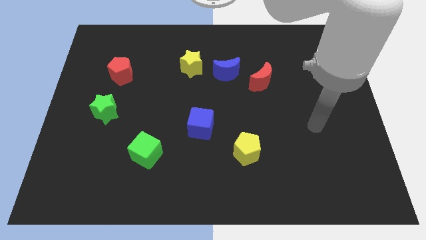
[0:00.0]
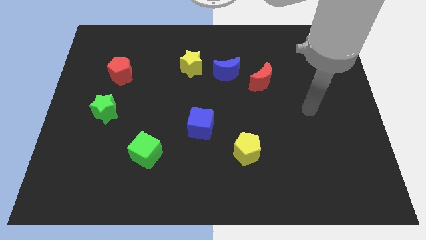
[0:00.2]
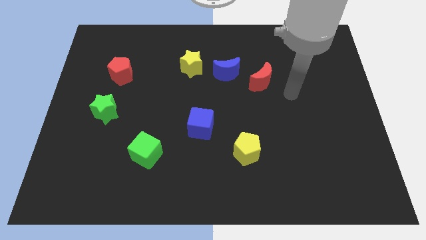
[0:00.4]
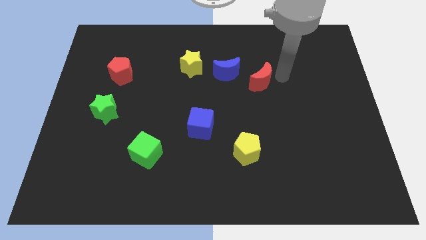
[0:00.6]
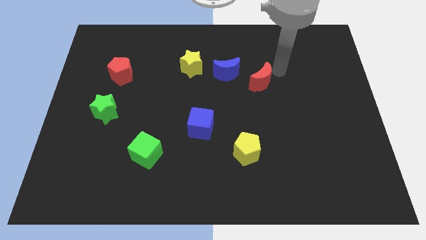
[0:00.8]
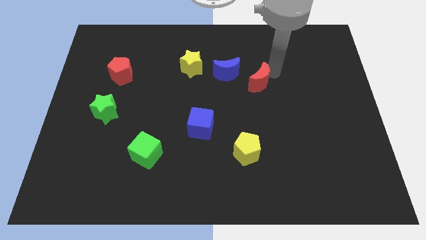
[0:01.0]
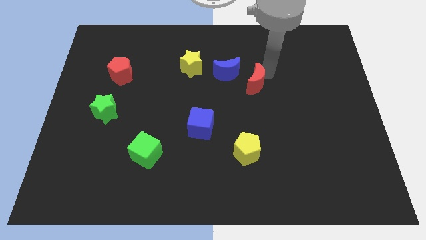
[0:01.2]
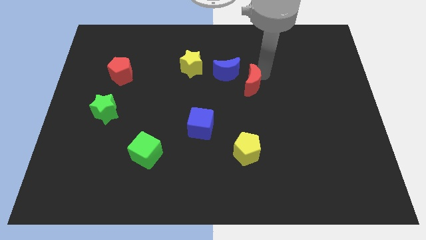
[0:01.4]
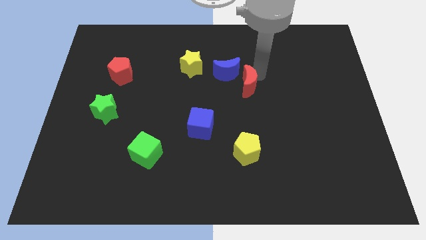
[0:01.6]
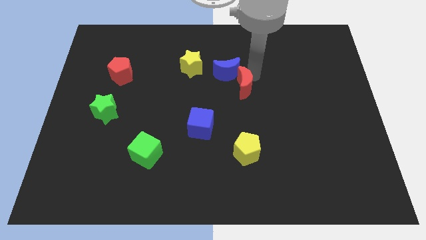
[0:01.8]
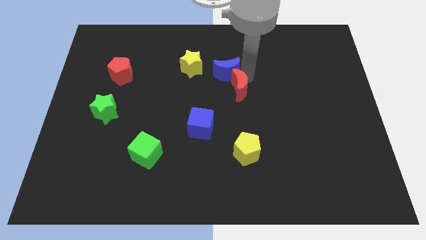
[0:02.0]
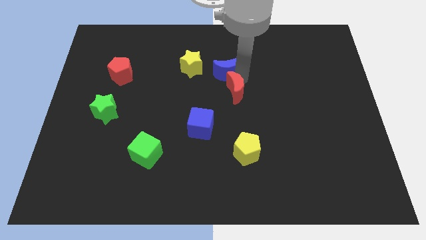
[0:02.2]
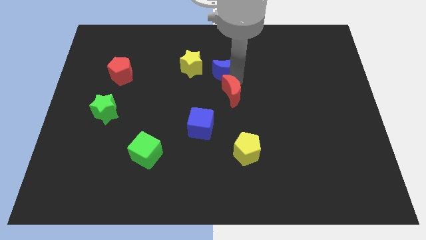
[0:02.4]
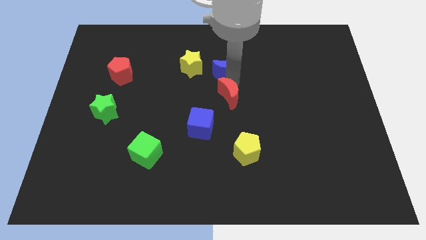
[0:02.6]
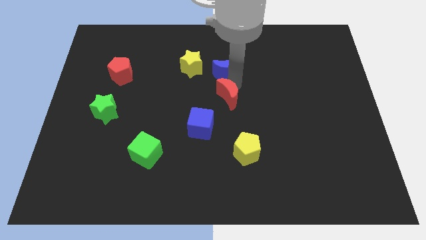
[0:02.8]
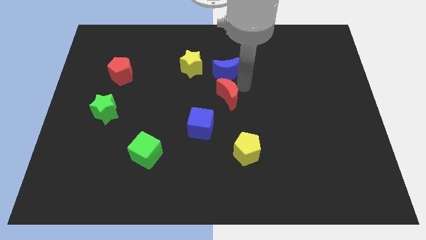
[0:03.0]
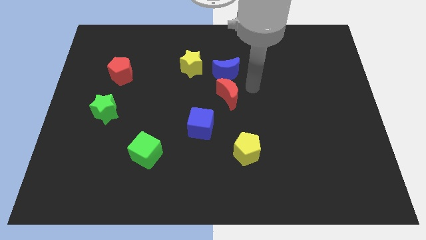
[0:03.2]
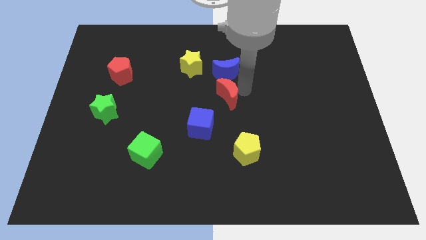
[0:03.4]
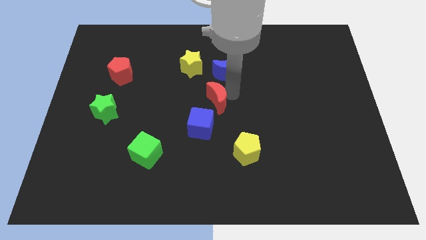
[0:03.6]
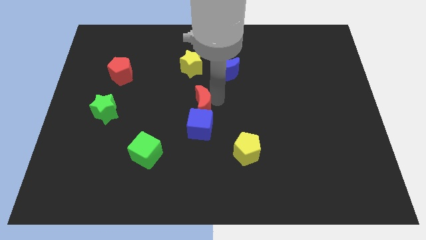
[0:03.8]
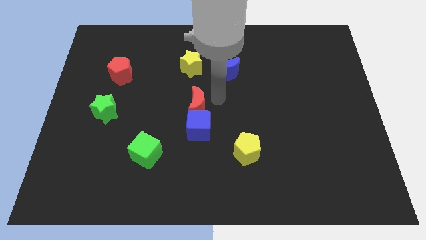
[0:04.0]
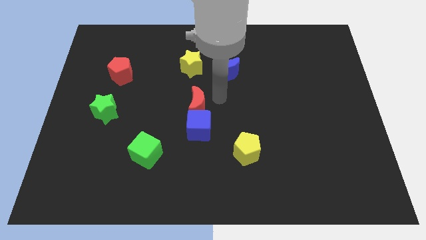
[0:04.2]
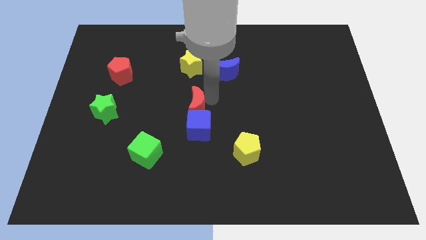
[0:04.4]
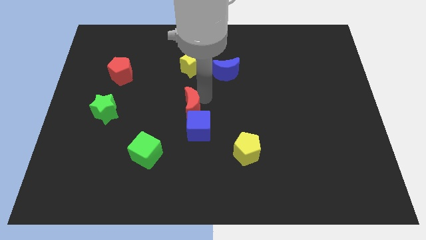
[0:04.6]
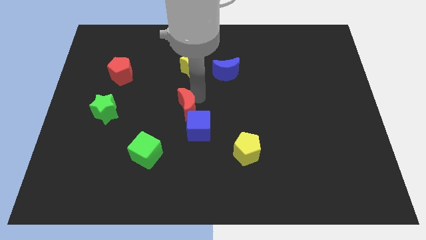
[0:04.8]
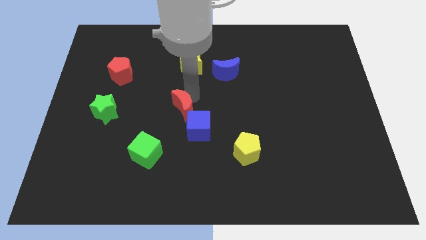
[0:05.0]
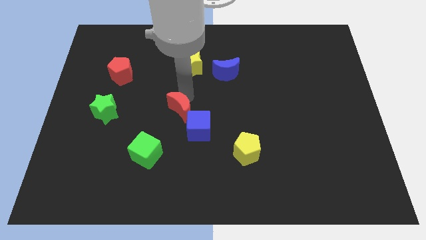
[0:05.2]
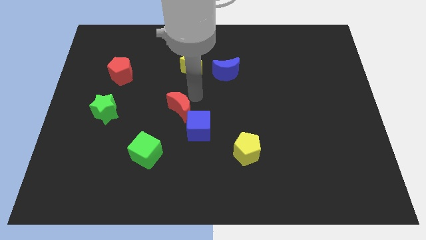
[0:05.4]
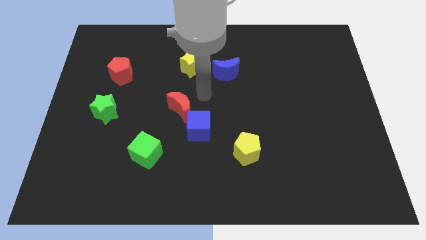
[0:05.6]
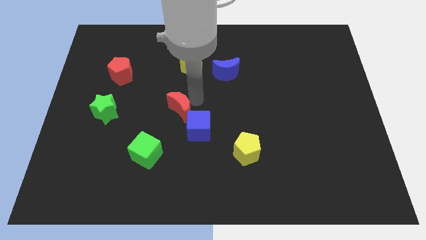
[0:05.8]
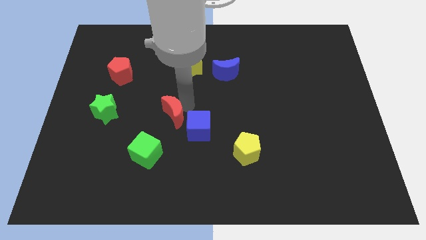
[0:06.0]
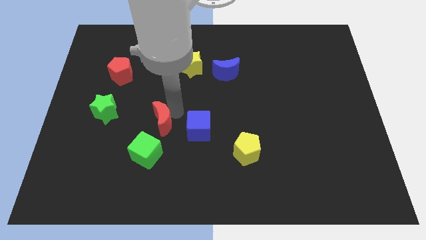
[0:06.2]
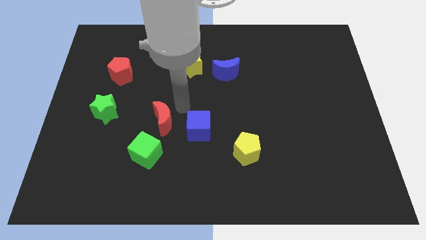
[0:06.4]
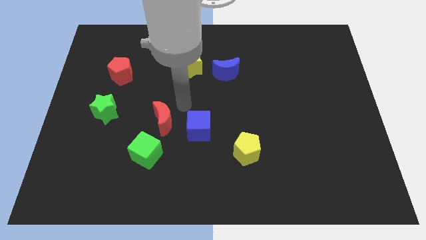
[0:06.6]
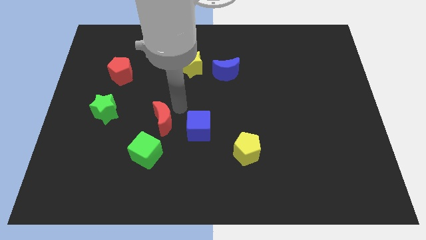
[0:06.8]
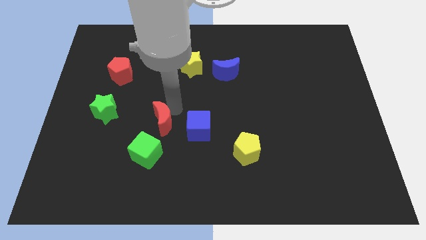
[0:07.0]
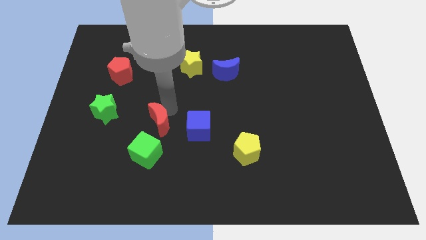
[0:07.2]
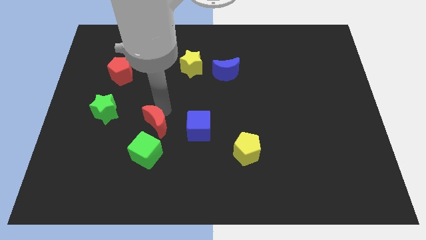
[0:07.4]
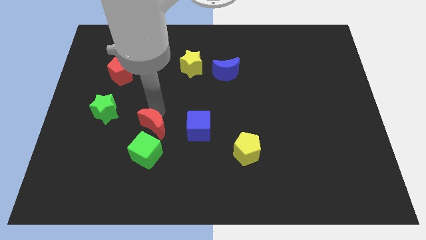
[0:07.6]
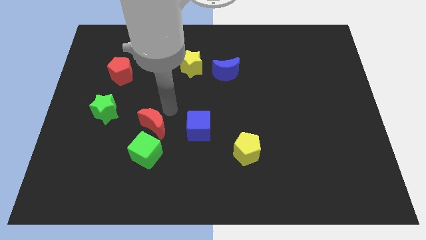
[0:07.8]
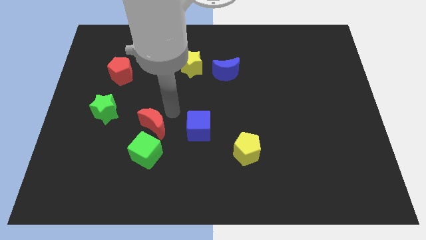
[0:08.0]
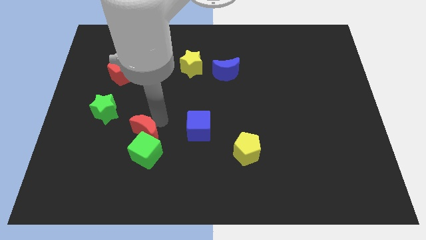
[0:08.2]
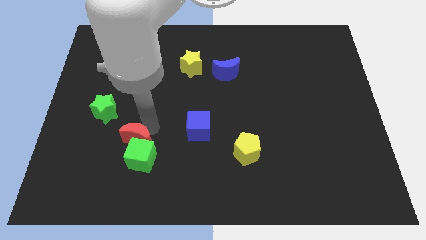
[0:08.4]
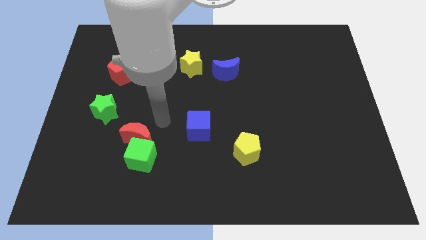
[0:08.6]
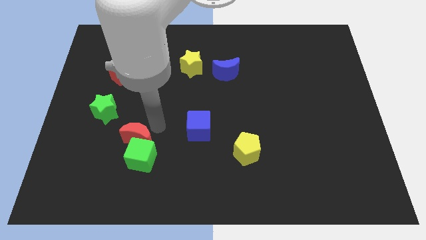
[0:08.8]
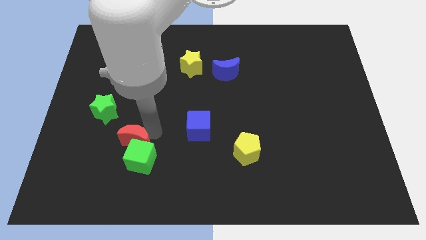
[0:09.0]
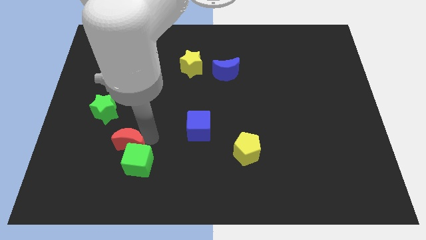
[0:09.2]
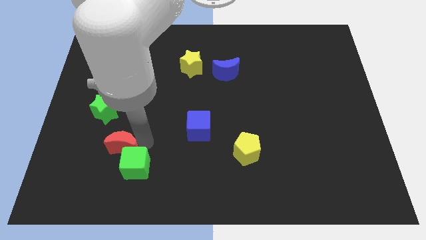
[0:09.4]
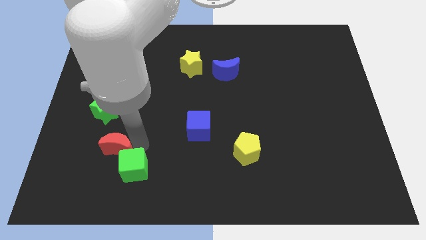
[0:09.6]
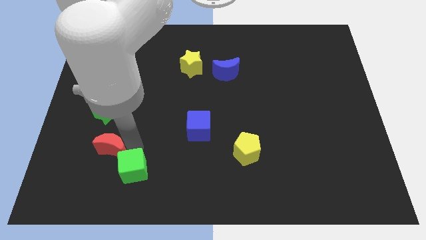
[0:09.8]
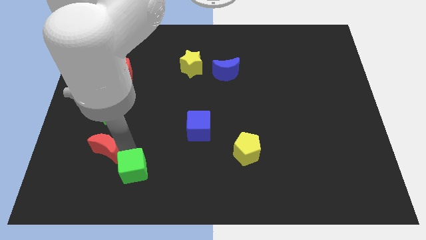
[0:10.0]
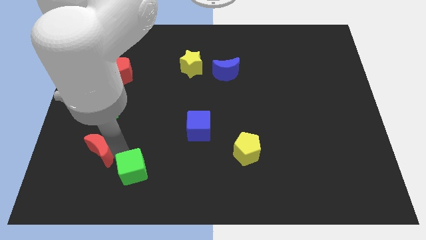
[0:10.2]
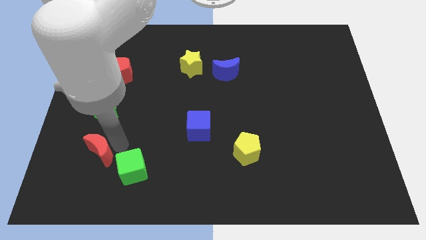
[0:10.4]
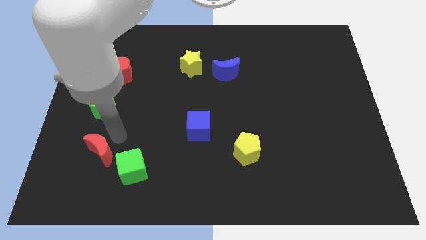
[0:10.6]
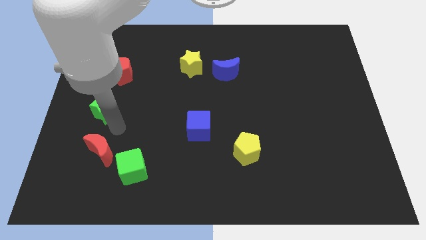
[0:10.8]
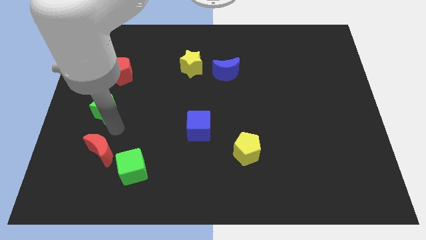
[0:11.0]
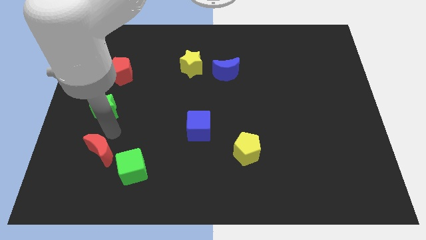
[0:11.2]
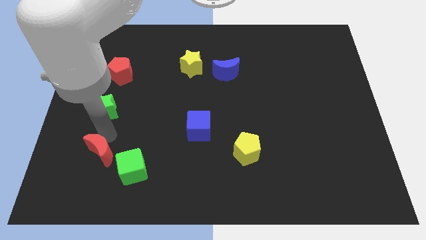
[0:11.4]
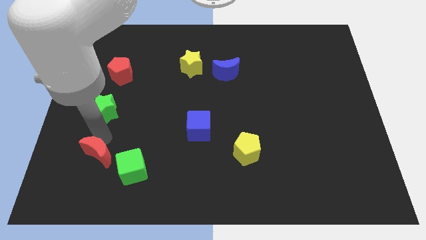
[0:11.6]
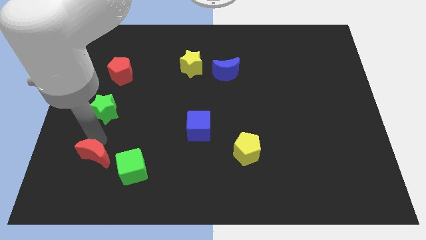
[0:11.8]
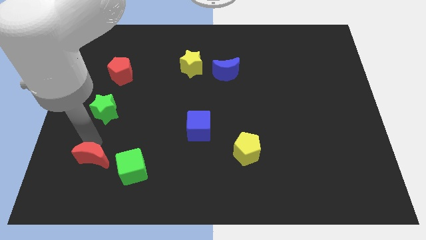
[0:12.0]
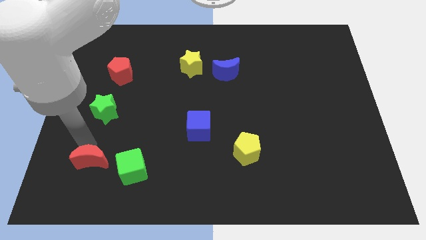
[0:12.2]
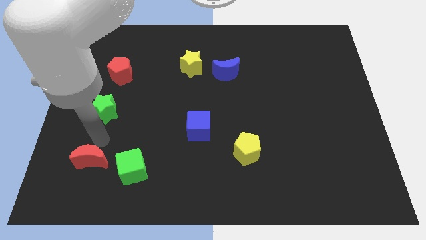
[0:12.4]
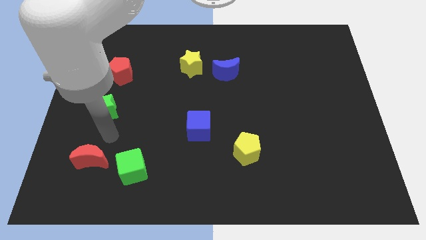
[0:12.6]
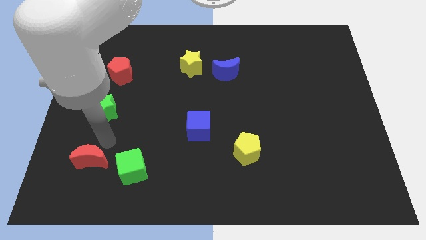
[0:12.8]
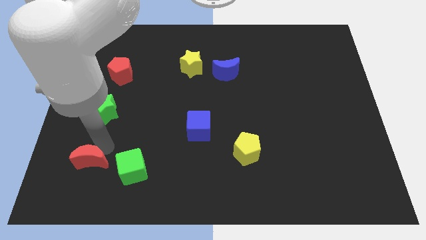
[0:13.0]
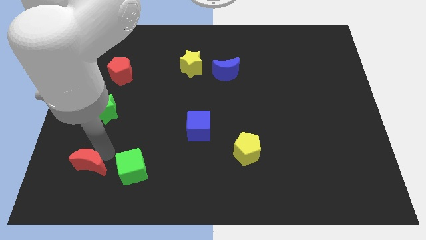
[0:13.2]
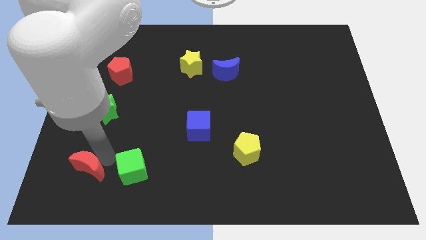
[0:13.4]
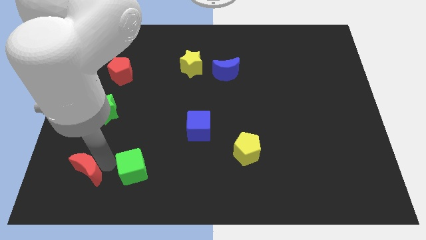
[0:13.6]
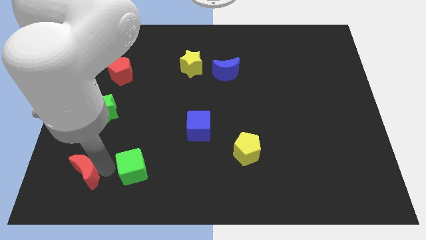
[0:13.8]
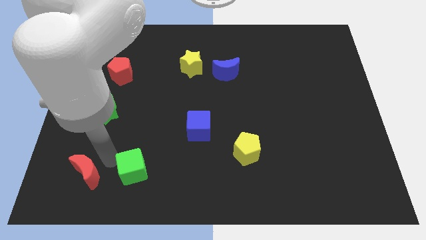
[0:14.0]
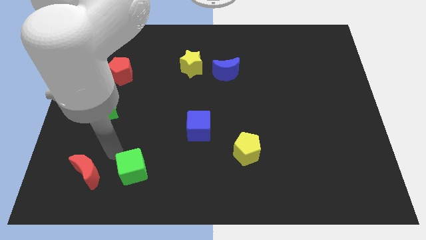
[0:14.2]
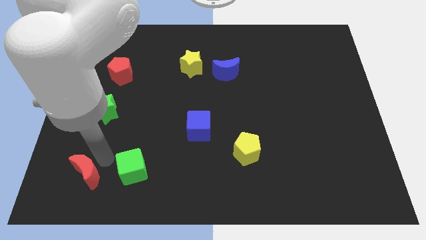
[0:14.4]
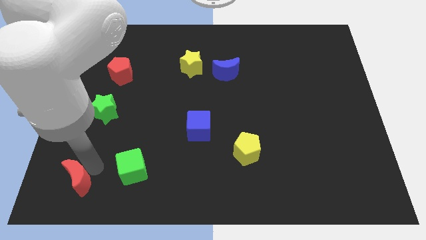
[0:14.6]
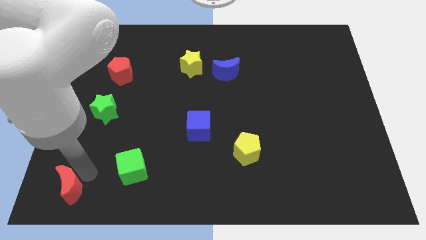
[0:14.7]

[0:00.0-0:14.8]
put the red moon to the lower left corner

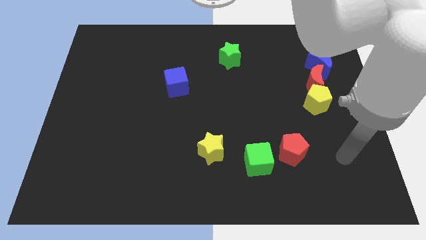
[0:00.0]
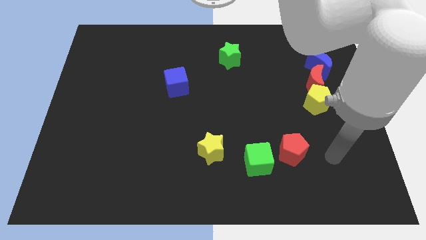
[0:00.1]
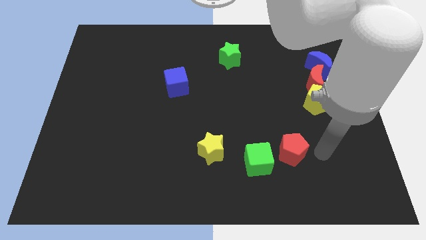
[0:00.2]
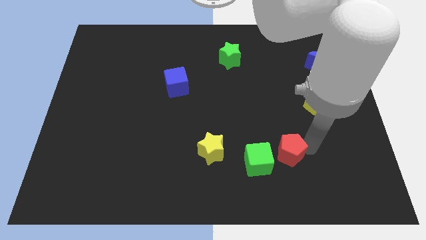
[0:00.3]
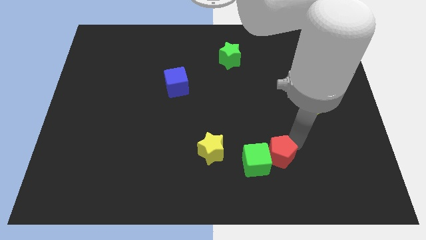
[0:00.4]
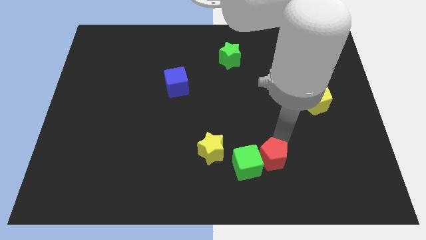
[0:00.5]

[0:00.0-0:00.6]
move the green cube to the bottom side
